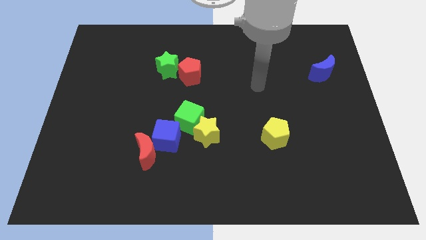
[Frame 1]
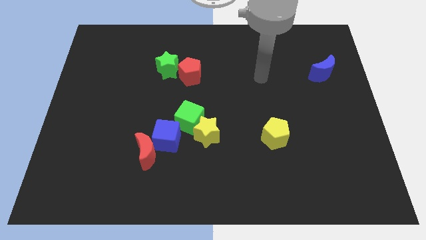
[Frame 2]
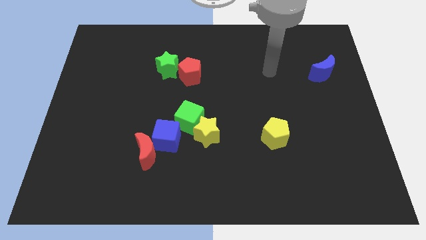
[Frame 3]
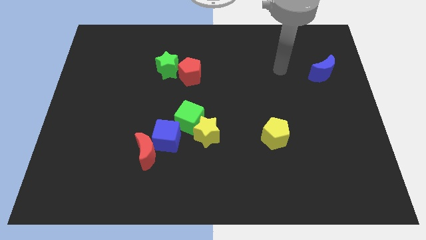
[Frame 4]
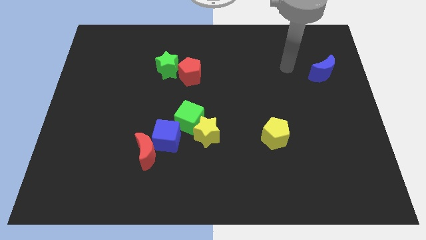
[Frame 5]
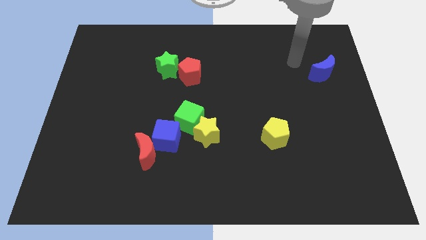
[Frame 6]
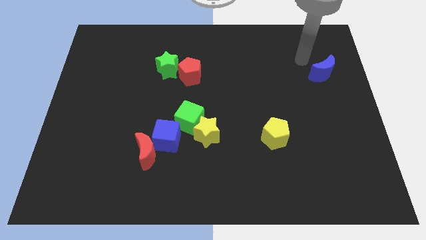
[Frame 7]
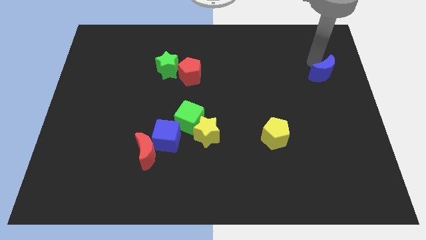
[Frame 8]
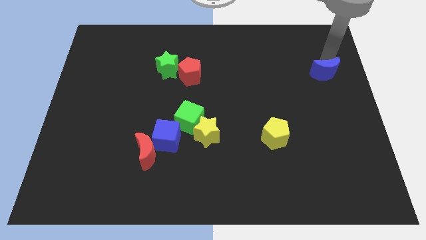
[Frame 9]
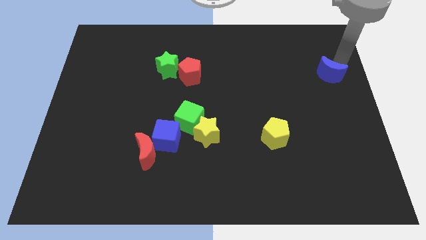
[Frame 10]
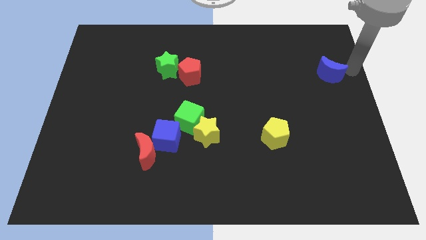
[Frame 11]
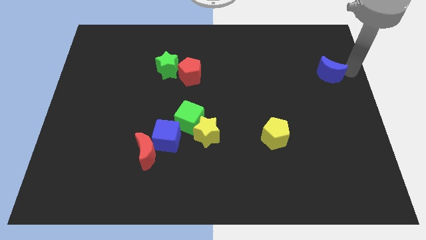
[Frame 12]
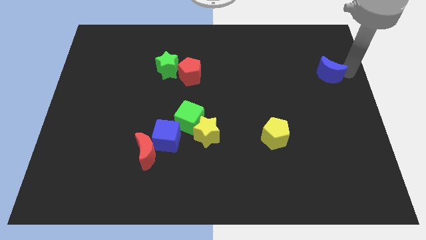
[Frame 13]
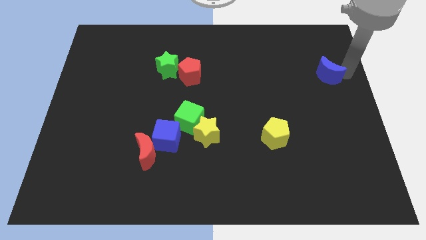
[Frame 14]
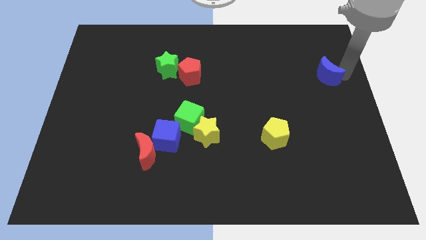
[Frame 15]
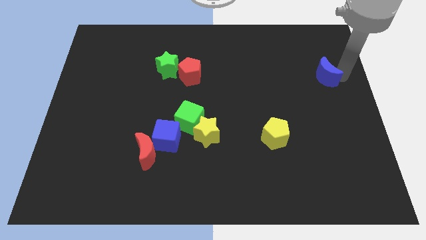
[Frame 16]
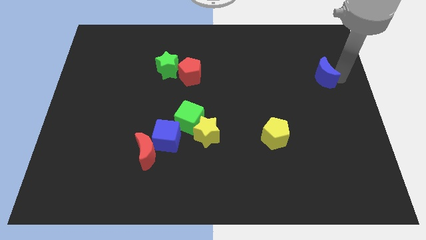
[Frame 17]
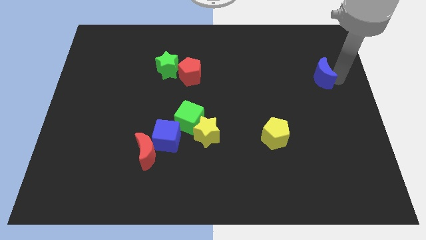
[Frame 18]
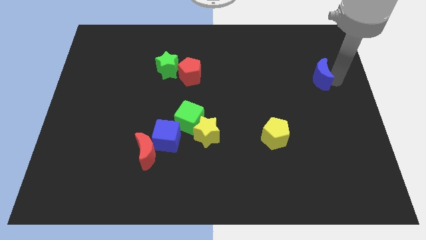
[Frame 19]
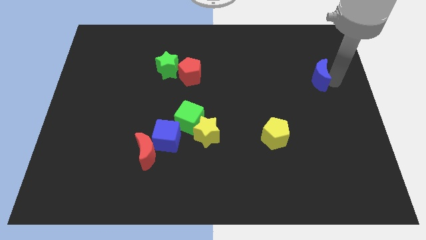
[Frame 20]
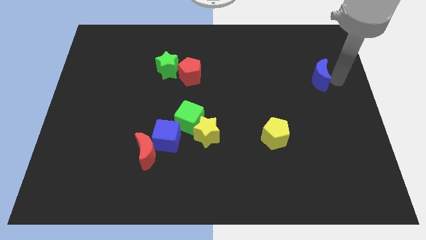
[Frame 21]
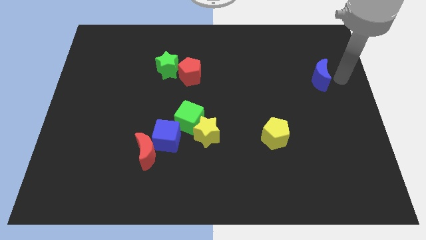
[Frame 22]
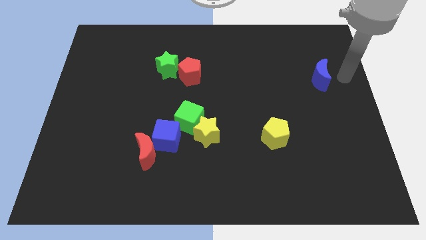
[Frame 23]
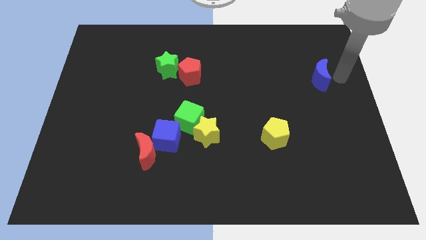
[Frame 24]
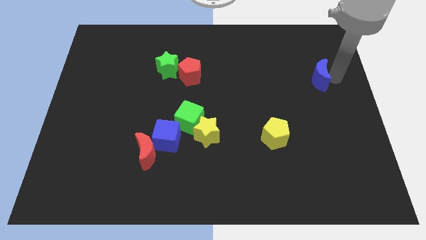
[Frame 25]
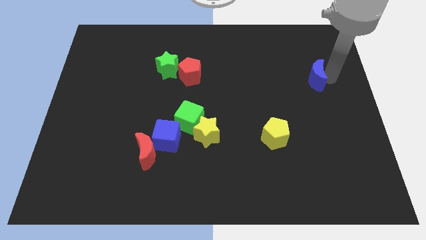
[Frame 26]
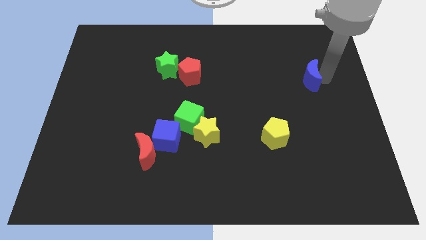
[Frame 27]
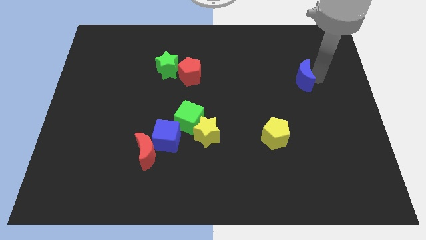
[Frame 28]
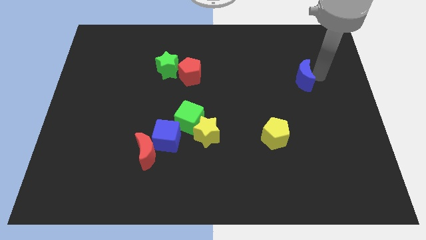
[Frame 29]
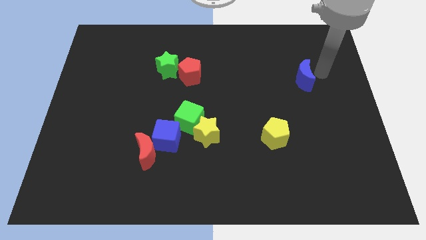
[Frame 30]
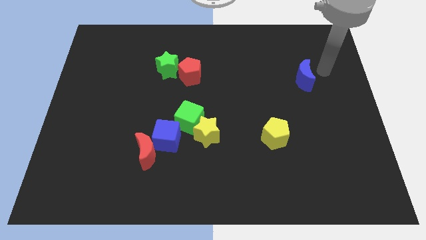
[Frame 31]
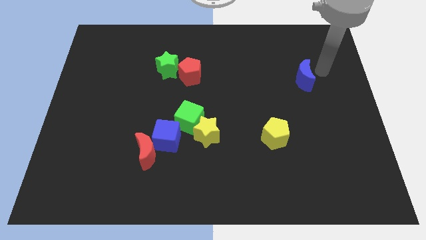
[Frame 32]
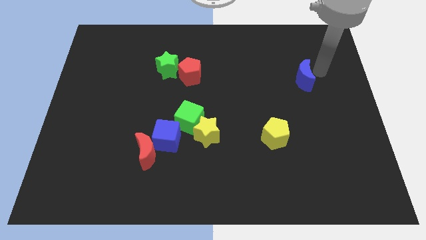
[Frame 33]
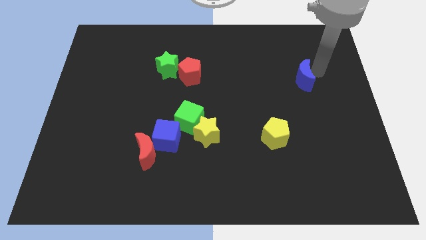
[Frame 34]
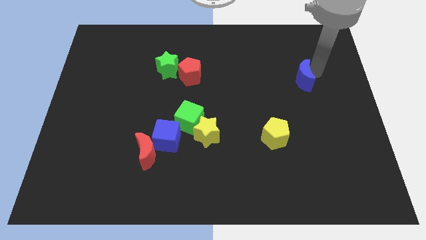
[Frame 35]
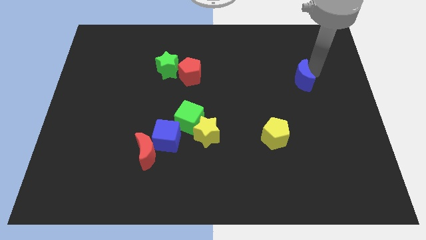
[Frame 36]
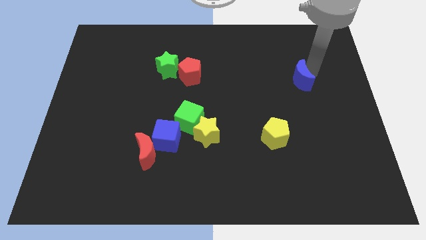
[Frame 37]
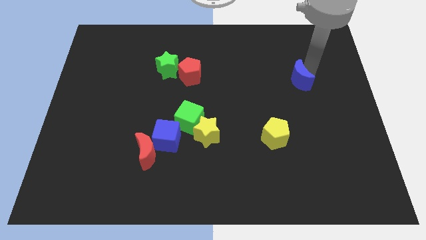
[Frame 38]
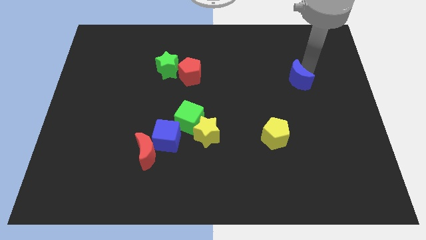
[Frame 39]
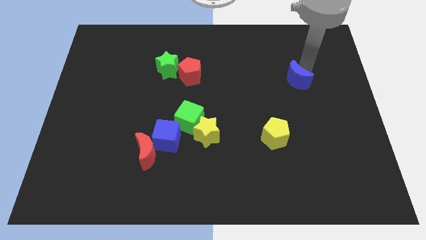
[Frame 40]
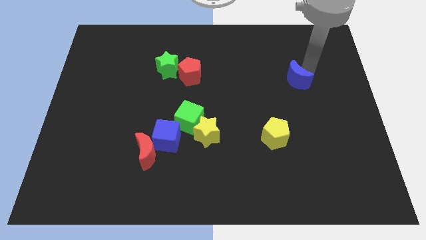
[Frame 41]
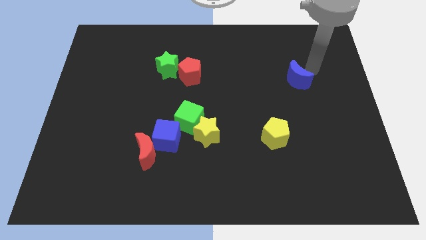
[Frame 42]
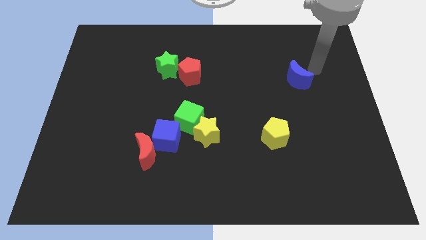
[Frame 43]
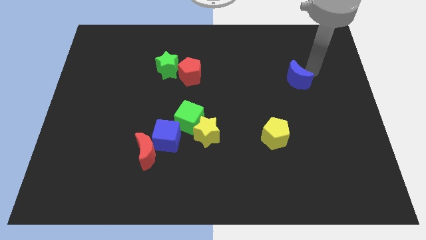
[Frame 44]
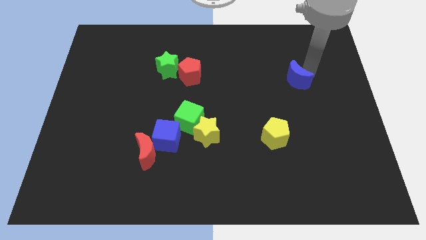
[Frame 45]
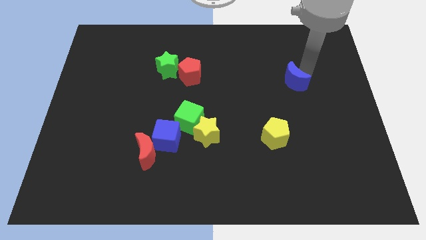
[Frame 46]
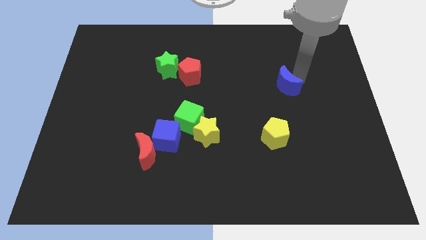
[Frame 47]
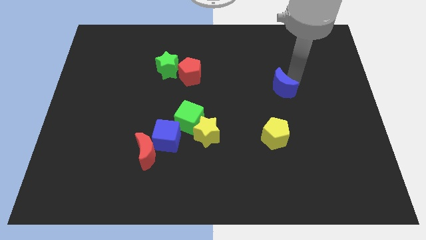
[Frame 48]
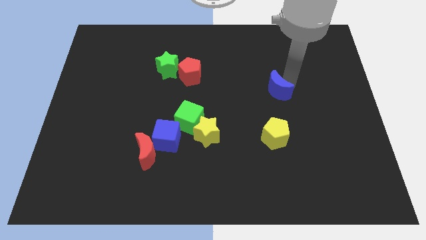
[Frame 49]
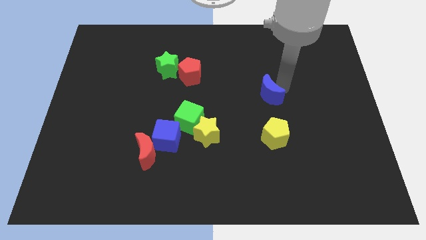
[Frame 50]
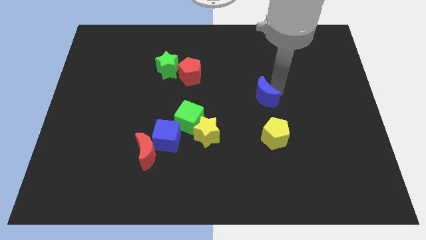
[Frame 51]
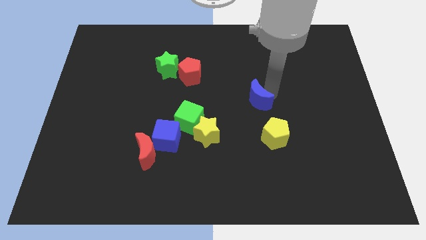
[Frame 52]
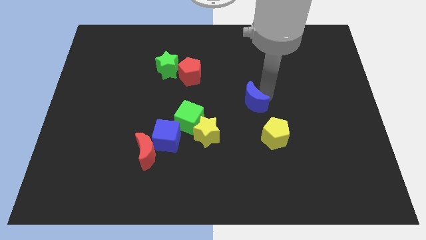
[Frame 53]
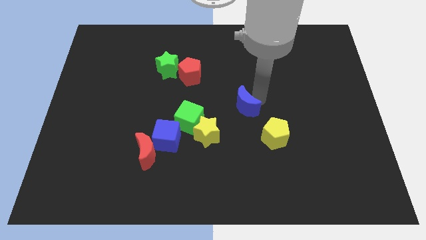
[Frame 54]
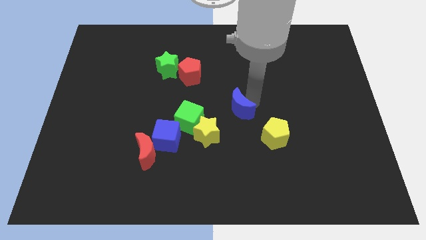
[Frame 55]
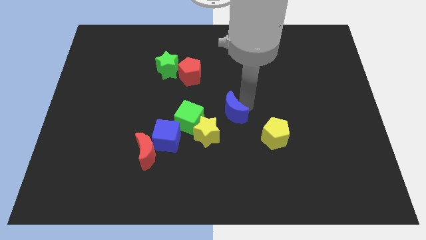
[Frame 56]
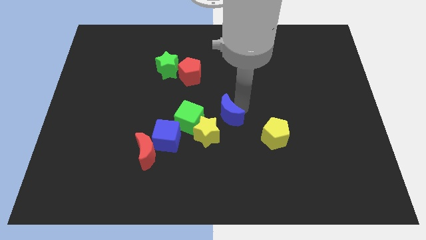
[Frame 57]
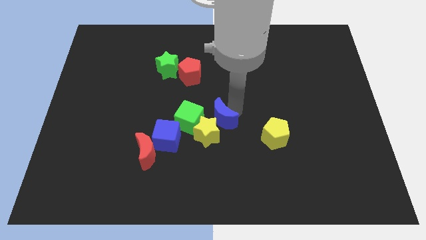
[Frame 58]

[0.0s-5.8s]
slide the blue moon towards the yellow star

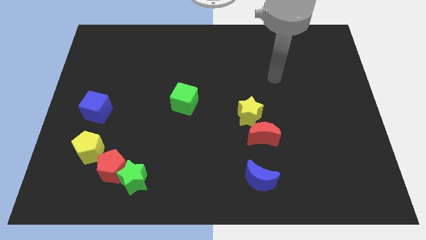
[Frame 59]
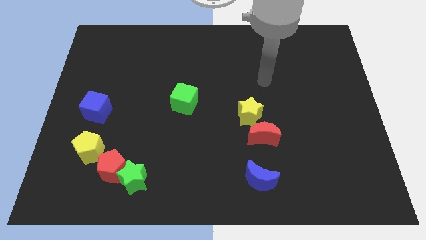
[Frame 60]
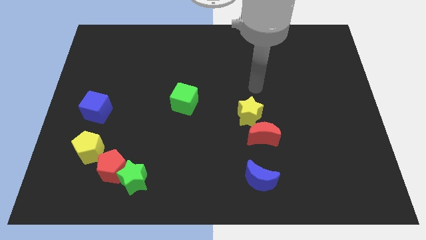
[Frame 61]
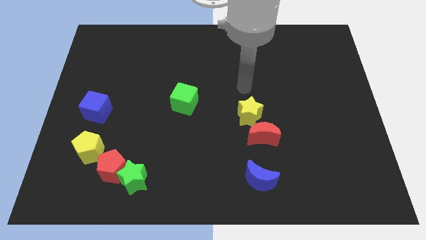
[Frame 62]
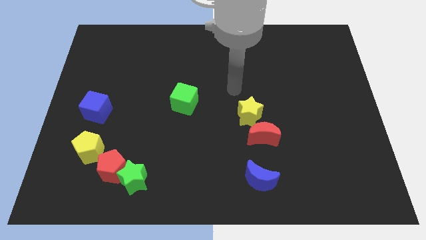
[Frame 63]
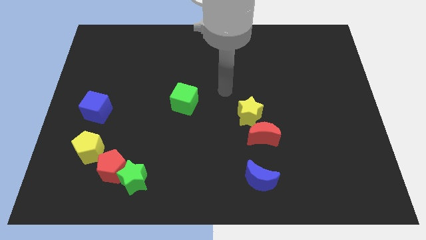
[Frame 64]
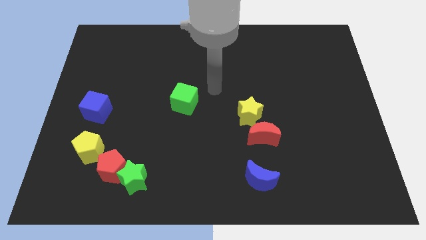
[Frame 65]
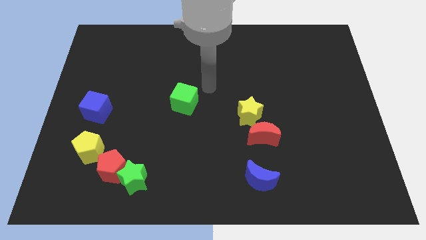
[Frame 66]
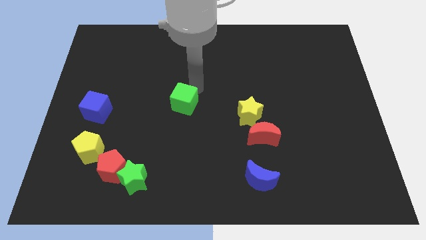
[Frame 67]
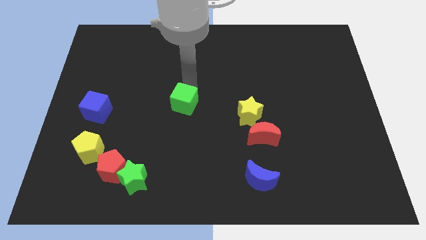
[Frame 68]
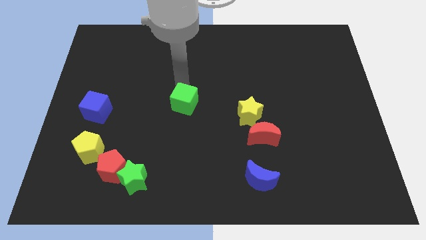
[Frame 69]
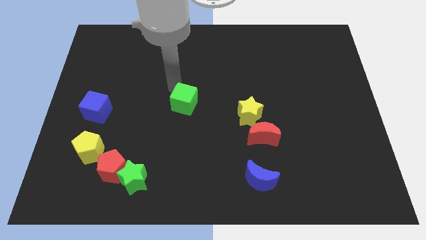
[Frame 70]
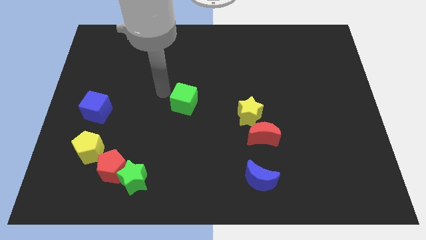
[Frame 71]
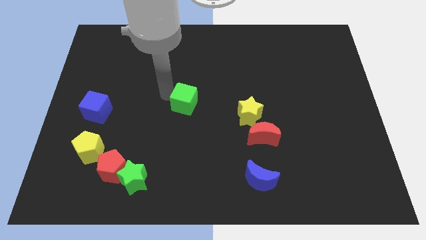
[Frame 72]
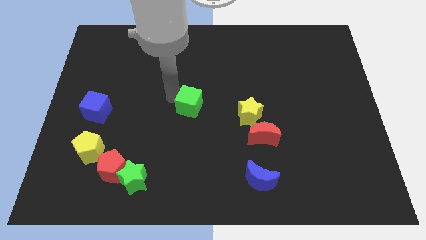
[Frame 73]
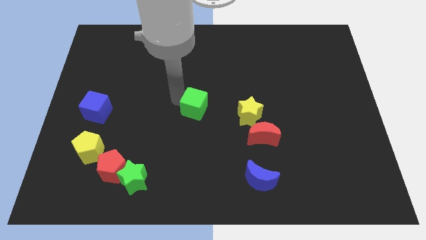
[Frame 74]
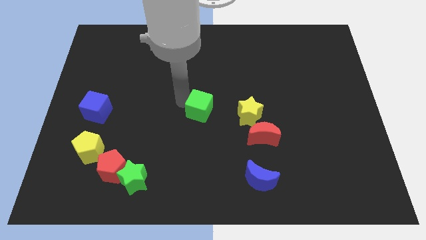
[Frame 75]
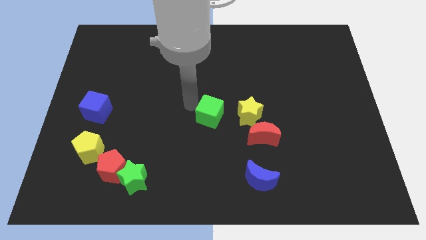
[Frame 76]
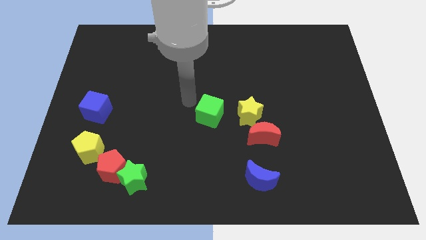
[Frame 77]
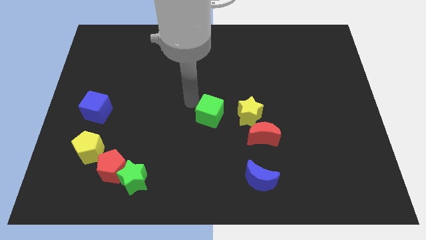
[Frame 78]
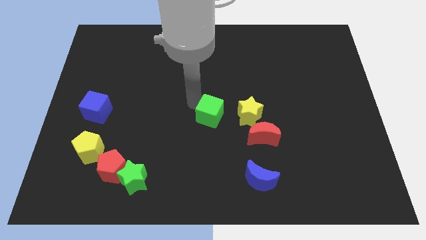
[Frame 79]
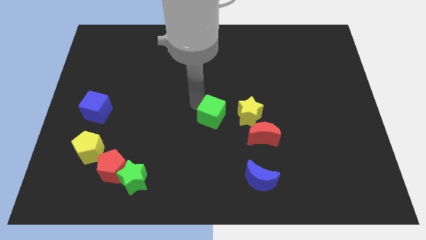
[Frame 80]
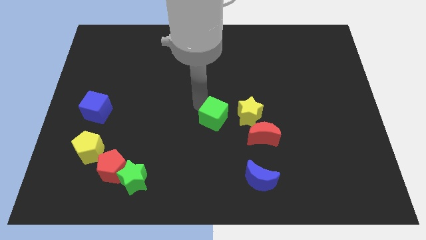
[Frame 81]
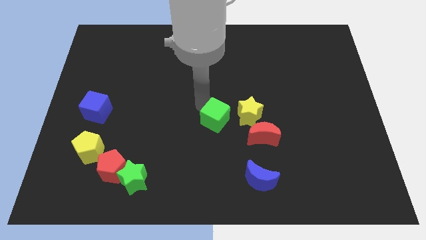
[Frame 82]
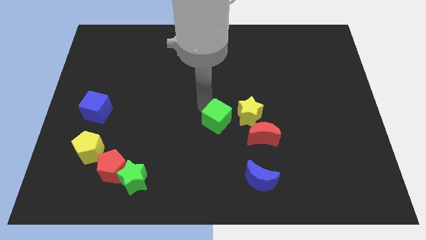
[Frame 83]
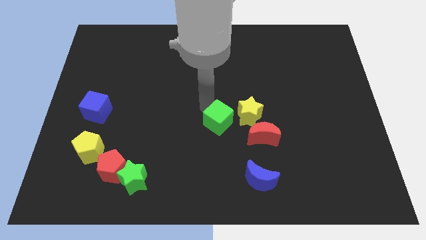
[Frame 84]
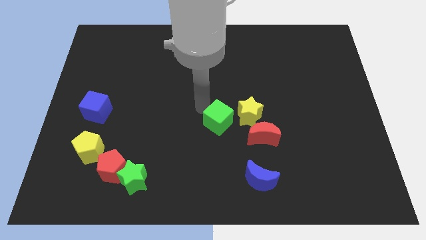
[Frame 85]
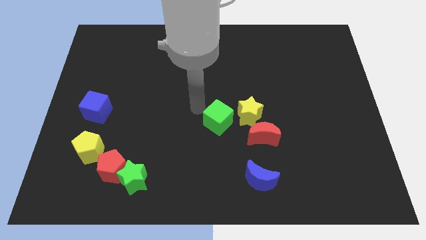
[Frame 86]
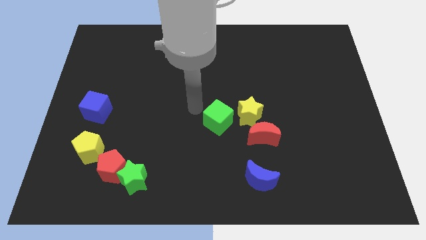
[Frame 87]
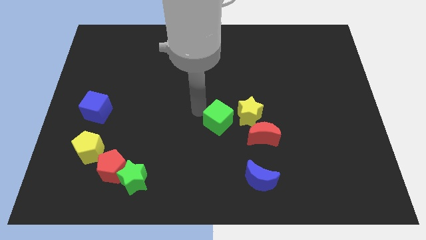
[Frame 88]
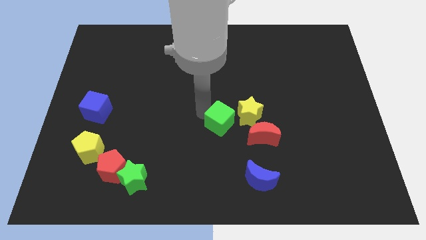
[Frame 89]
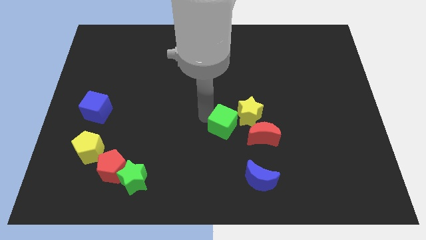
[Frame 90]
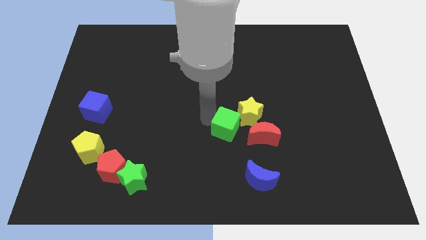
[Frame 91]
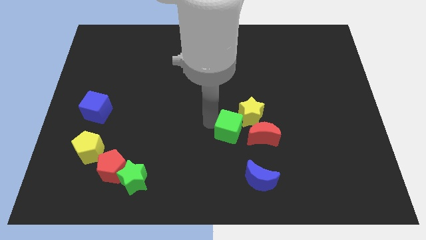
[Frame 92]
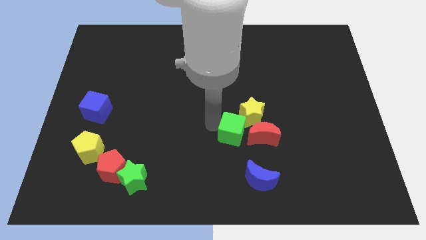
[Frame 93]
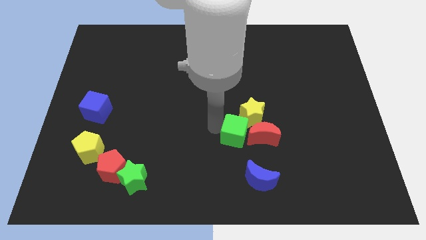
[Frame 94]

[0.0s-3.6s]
push the green cube towards the red moon
